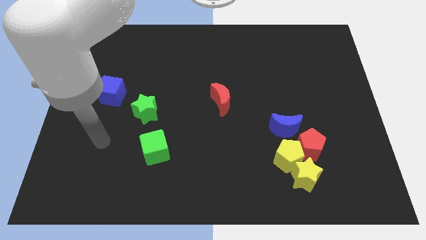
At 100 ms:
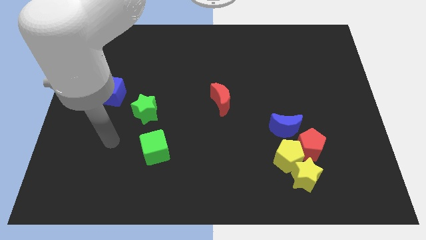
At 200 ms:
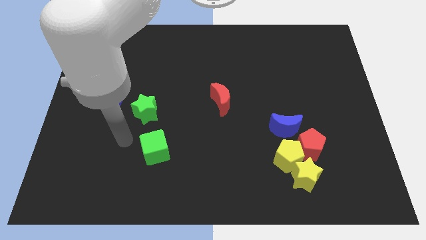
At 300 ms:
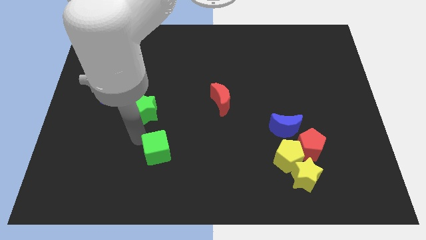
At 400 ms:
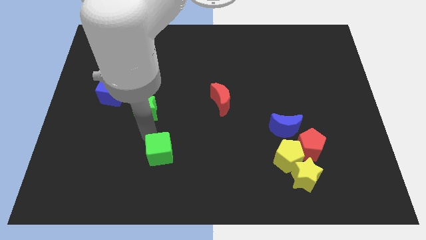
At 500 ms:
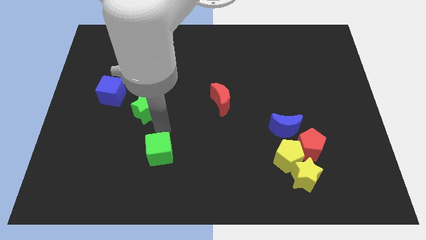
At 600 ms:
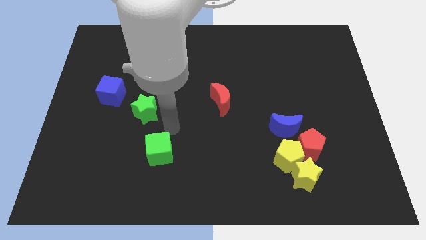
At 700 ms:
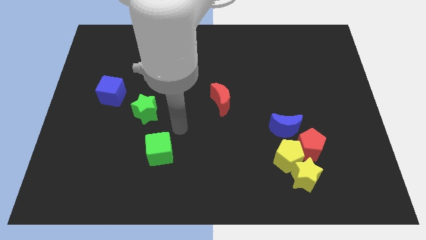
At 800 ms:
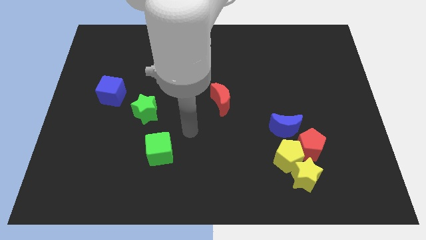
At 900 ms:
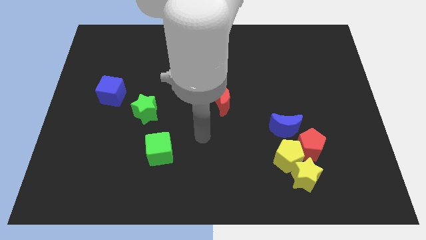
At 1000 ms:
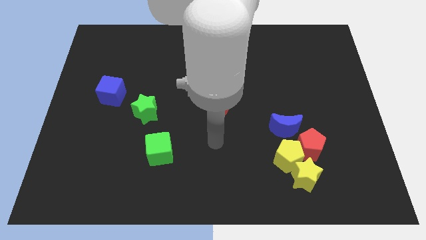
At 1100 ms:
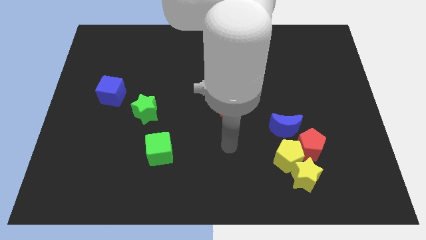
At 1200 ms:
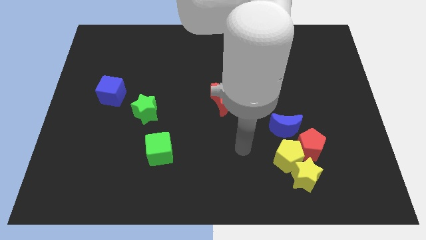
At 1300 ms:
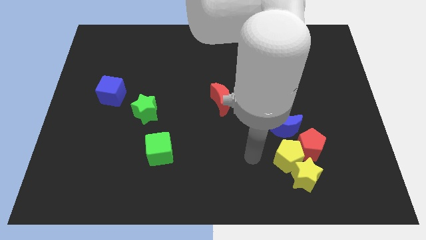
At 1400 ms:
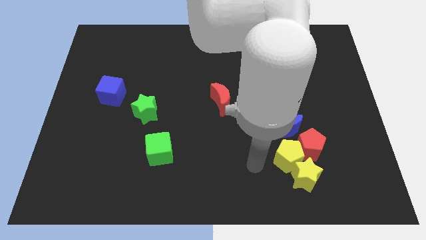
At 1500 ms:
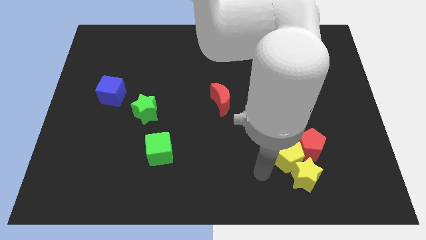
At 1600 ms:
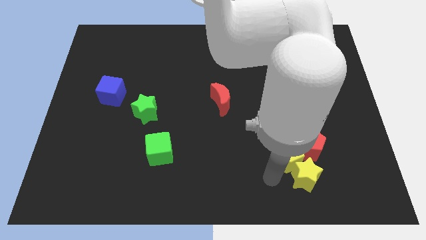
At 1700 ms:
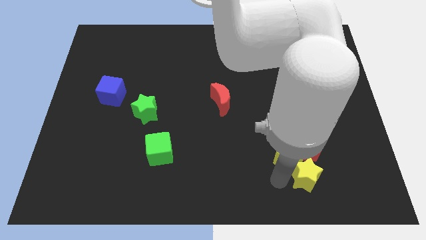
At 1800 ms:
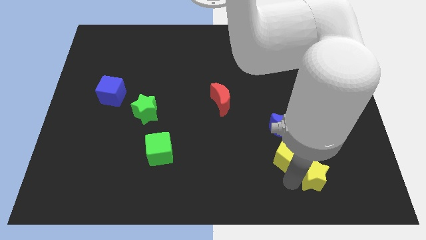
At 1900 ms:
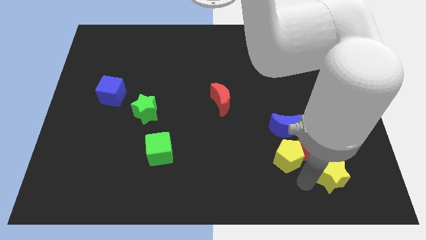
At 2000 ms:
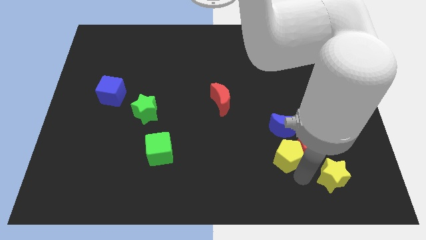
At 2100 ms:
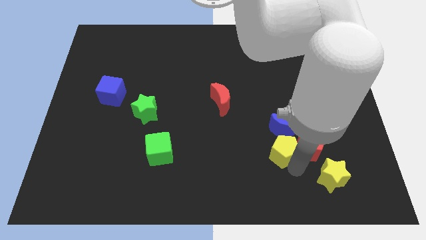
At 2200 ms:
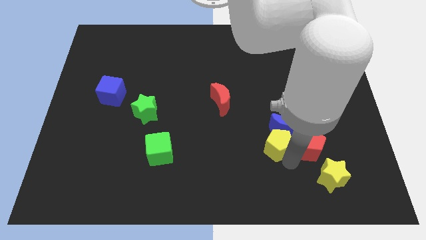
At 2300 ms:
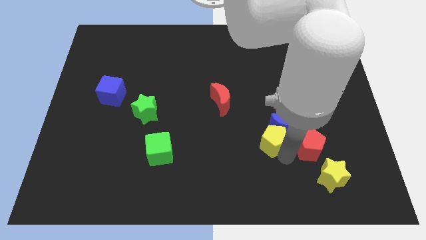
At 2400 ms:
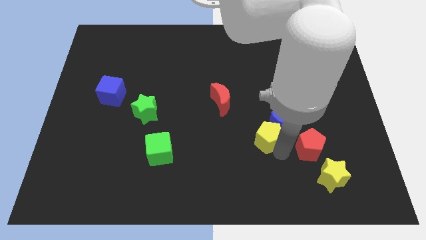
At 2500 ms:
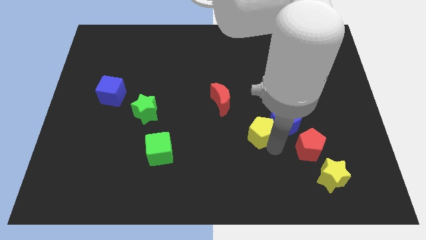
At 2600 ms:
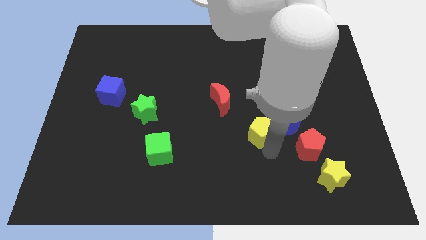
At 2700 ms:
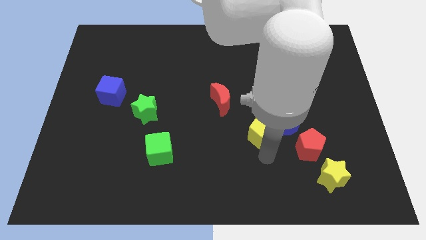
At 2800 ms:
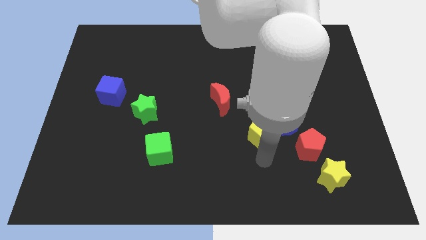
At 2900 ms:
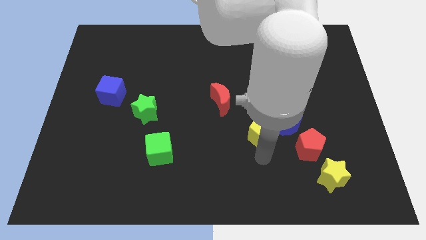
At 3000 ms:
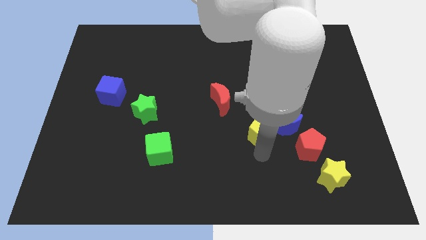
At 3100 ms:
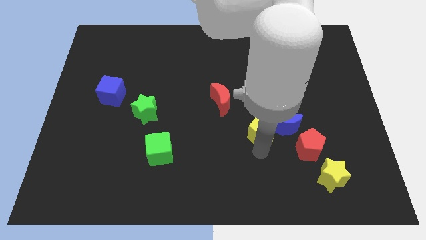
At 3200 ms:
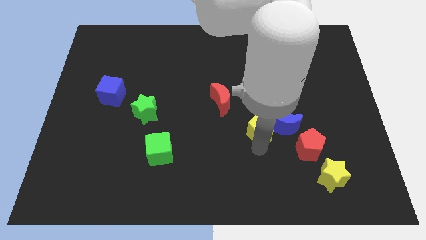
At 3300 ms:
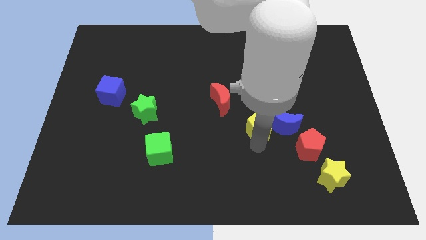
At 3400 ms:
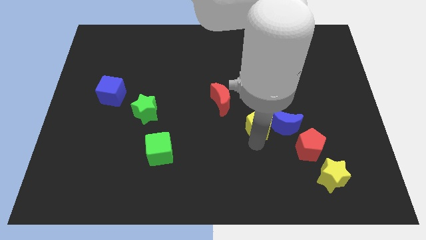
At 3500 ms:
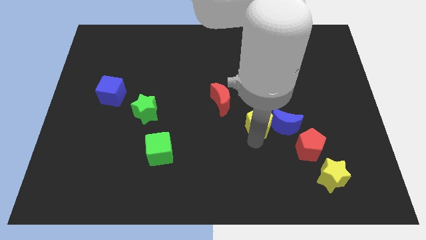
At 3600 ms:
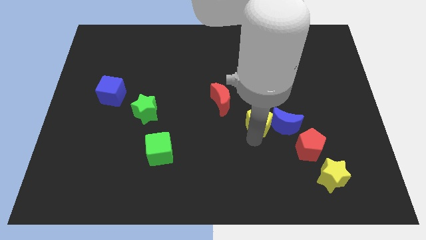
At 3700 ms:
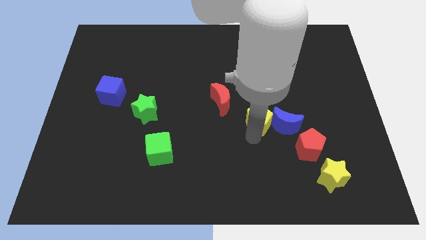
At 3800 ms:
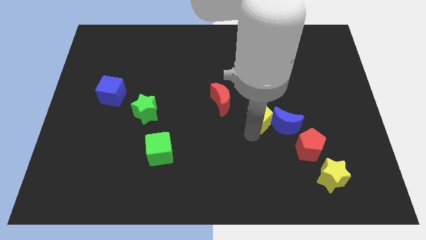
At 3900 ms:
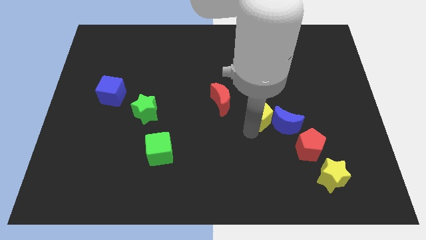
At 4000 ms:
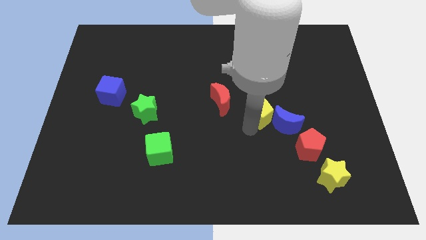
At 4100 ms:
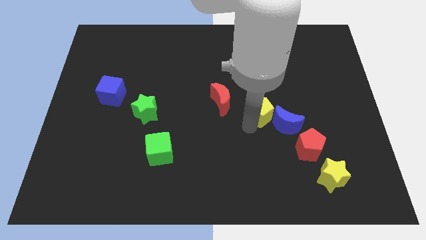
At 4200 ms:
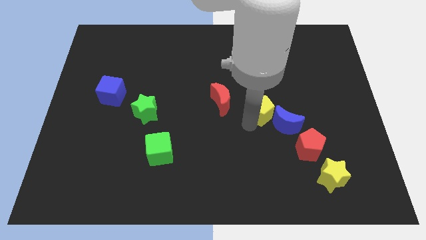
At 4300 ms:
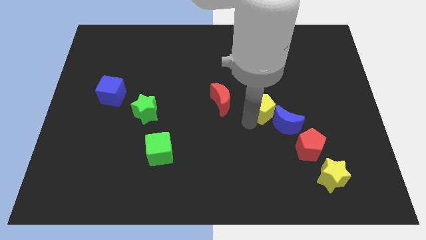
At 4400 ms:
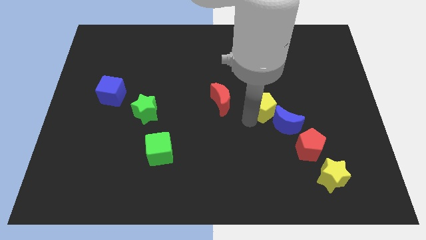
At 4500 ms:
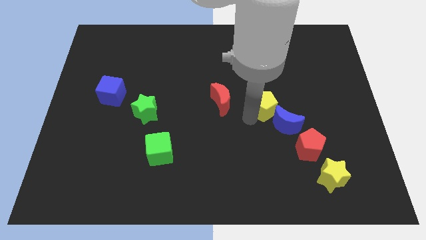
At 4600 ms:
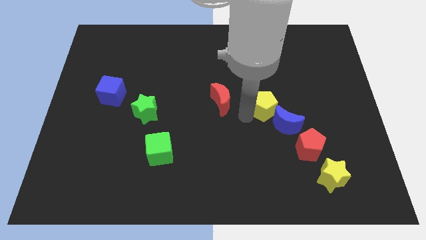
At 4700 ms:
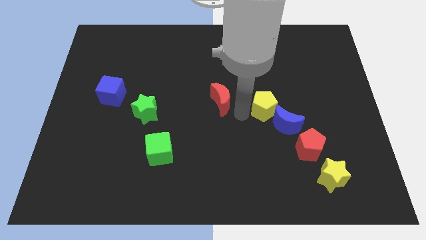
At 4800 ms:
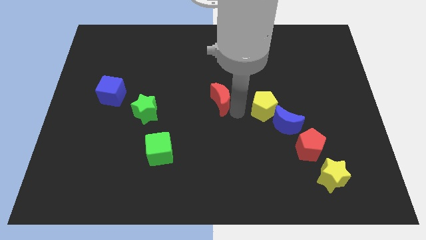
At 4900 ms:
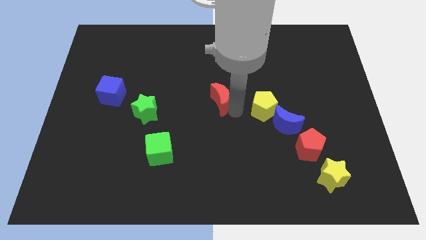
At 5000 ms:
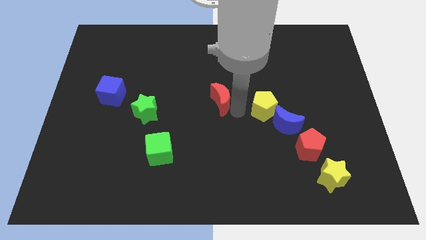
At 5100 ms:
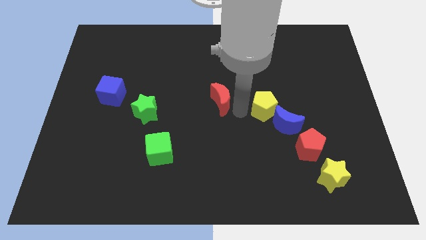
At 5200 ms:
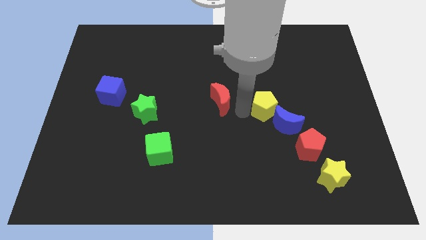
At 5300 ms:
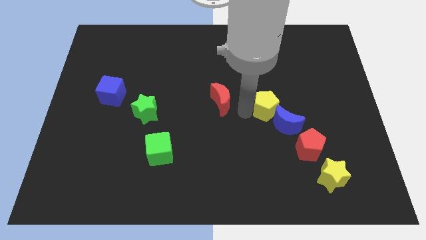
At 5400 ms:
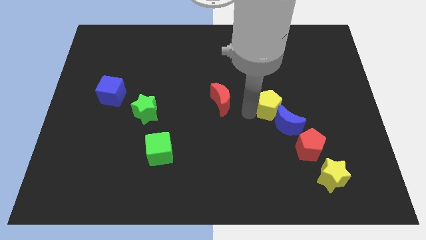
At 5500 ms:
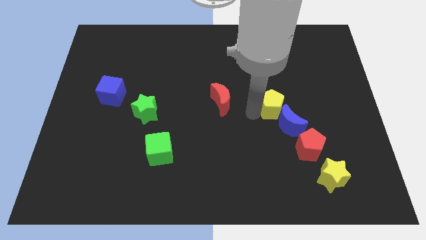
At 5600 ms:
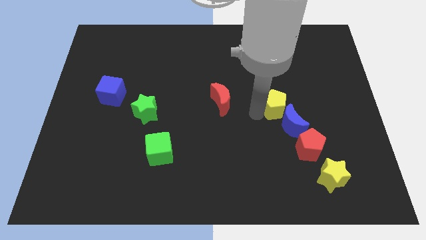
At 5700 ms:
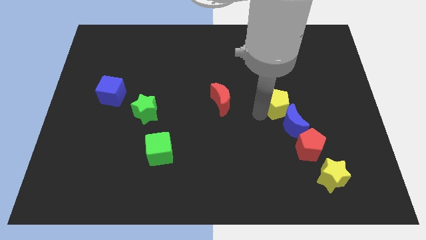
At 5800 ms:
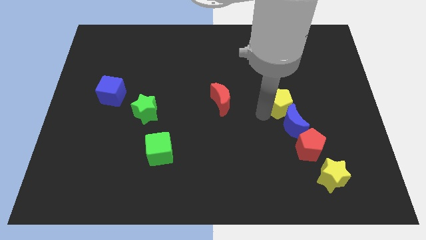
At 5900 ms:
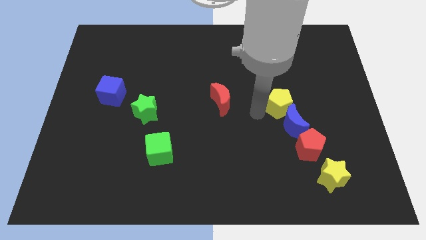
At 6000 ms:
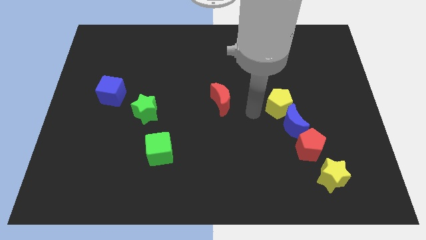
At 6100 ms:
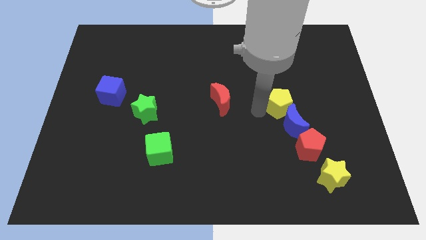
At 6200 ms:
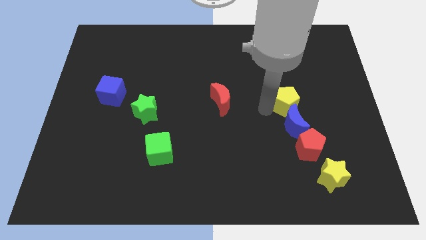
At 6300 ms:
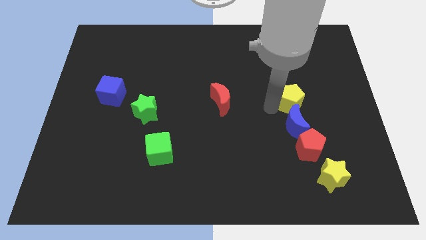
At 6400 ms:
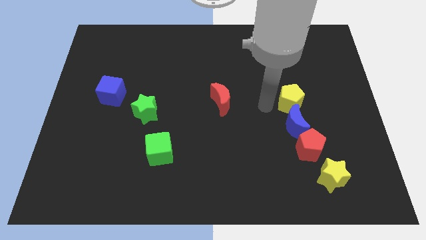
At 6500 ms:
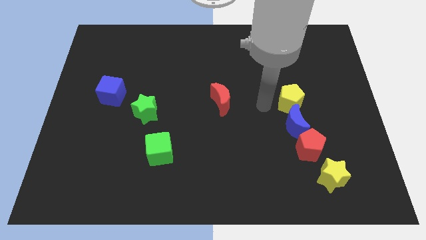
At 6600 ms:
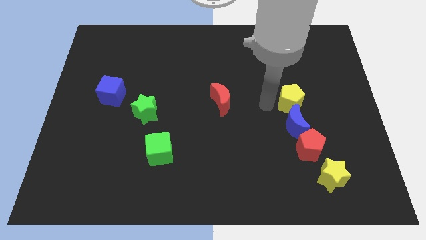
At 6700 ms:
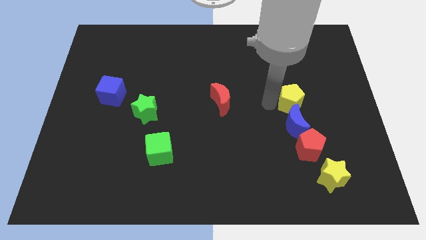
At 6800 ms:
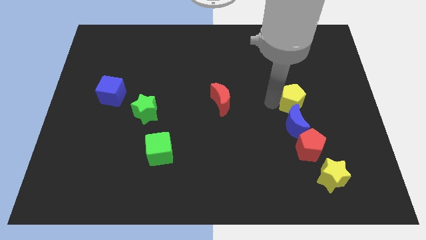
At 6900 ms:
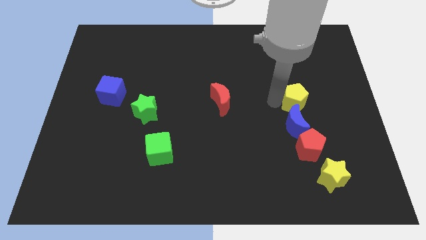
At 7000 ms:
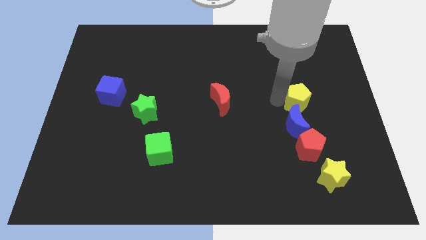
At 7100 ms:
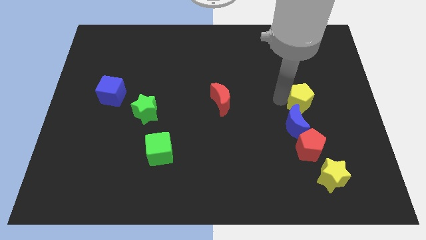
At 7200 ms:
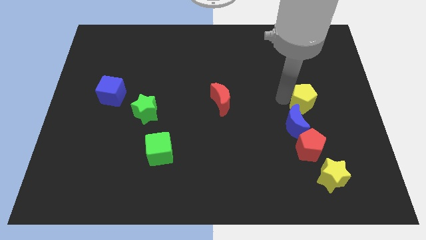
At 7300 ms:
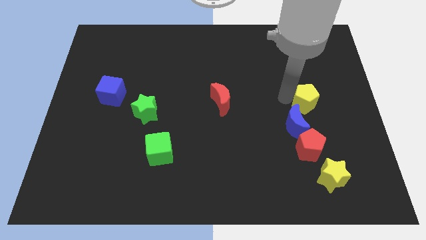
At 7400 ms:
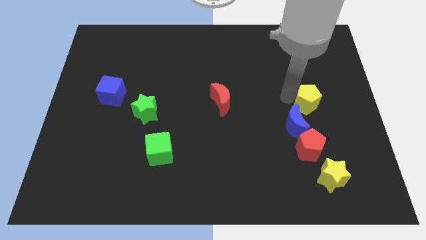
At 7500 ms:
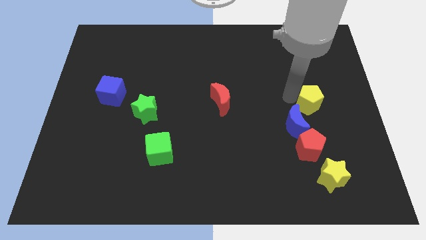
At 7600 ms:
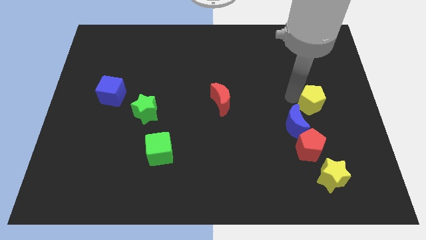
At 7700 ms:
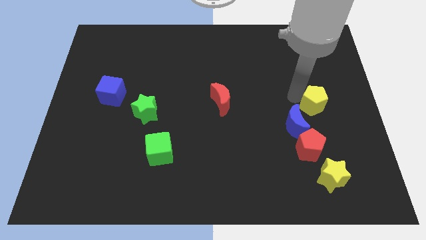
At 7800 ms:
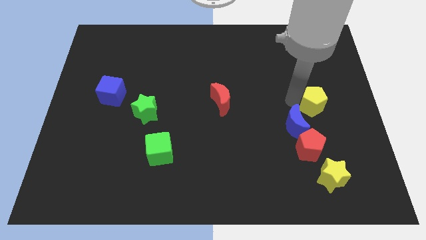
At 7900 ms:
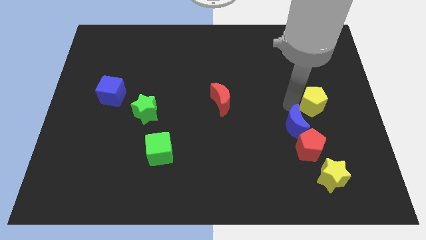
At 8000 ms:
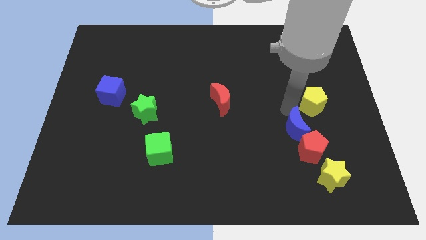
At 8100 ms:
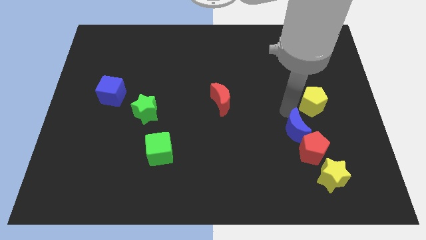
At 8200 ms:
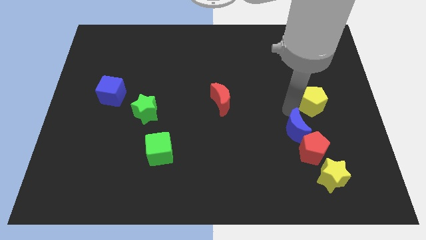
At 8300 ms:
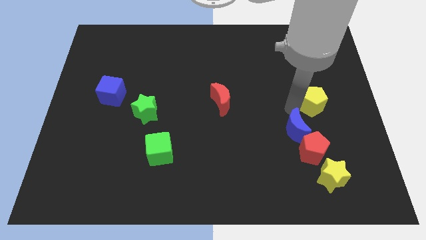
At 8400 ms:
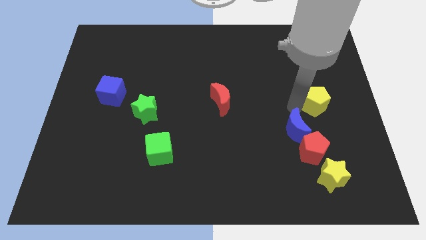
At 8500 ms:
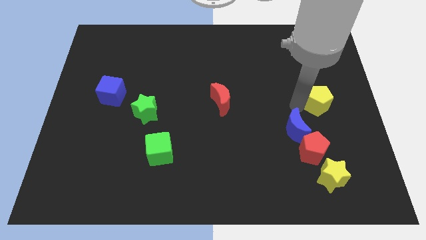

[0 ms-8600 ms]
push the yellow pentagon to the right side of the board
